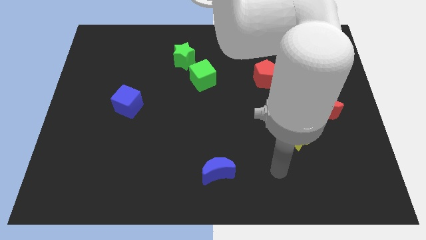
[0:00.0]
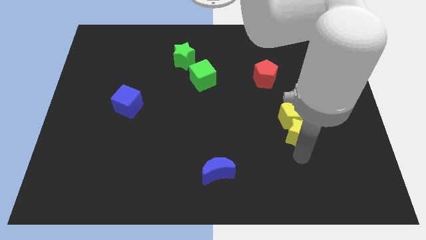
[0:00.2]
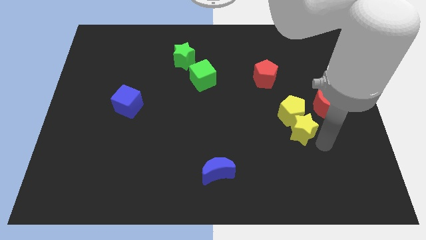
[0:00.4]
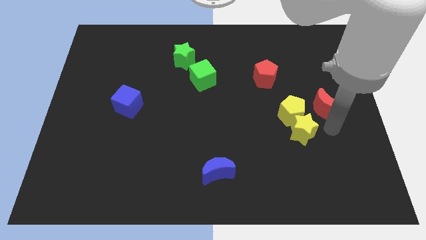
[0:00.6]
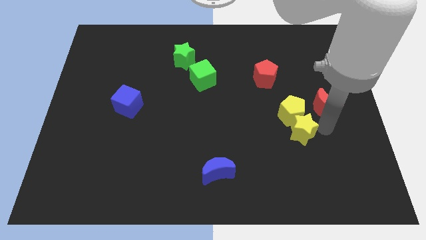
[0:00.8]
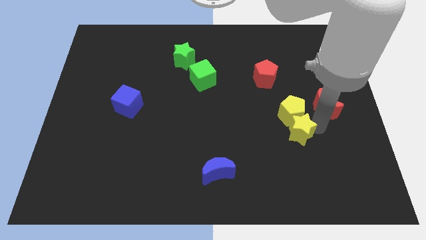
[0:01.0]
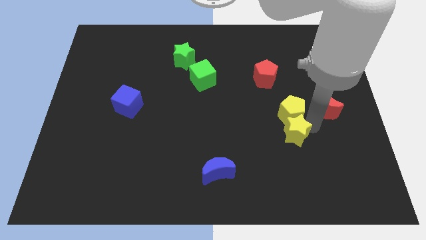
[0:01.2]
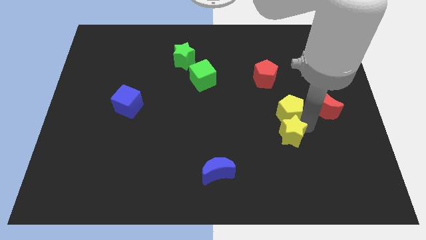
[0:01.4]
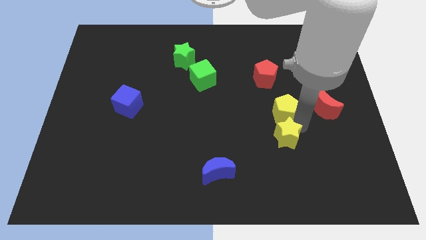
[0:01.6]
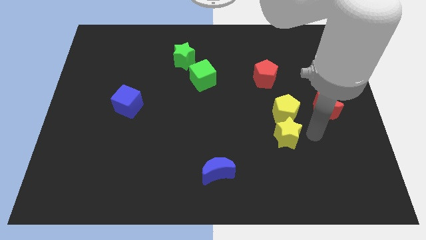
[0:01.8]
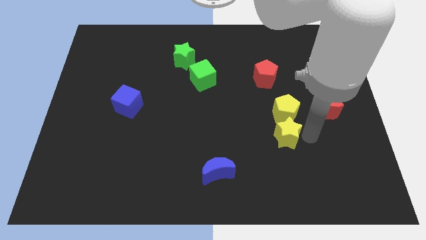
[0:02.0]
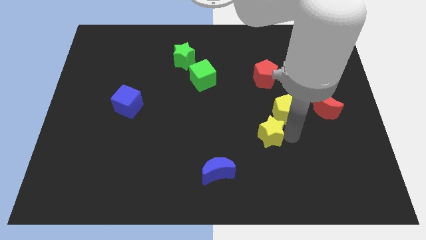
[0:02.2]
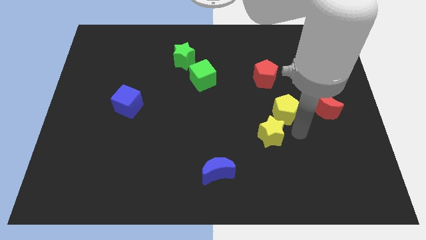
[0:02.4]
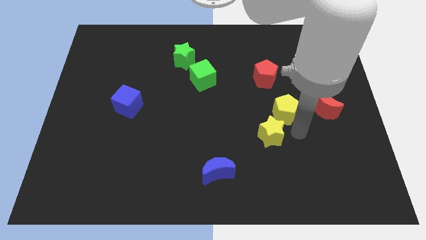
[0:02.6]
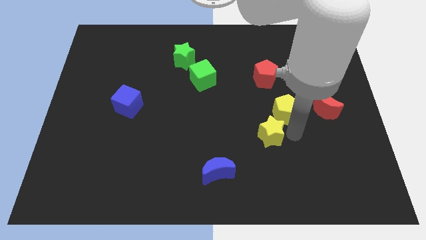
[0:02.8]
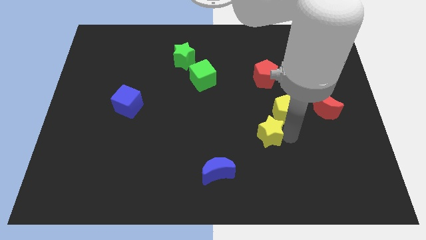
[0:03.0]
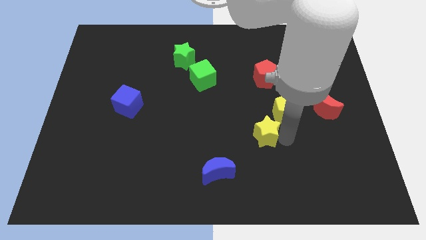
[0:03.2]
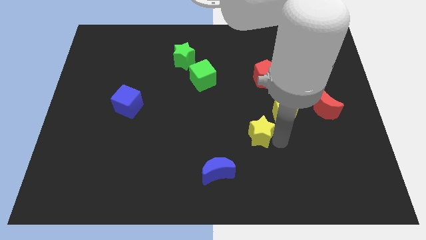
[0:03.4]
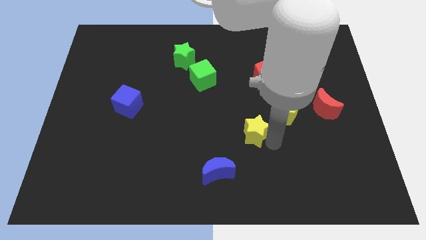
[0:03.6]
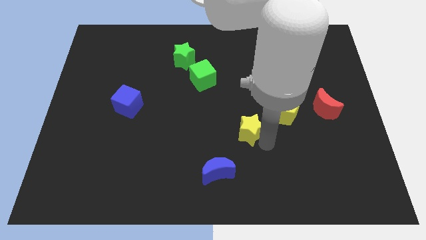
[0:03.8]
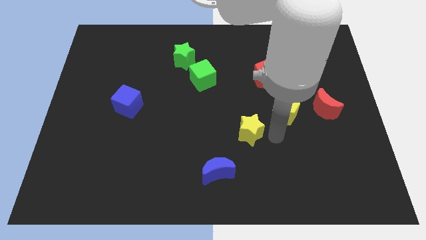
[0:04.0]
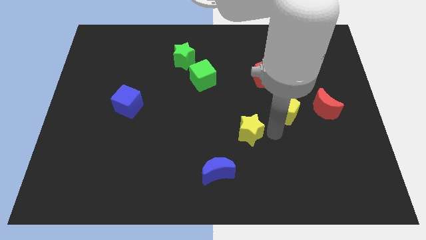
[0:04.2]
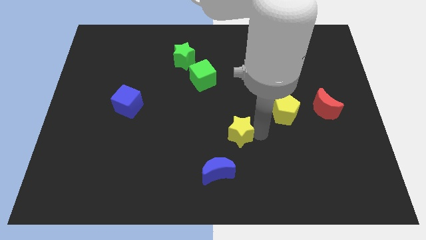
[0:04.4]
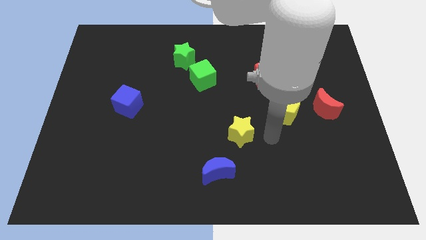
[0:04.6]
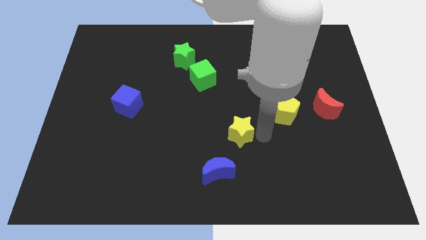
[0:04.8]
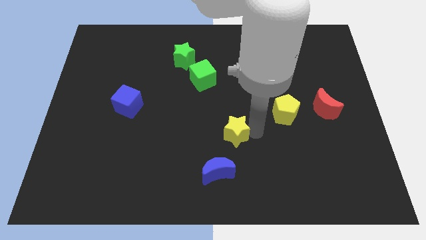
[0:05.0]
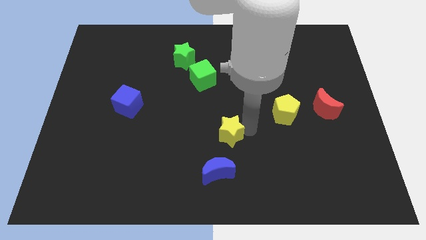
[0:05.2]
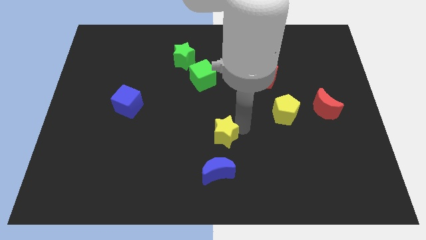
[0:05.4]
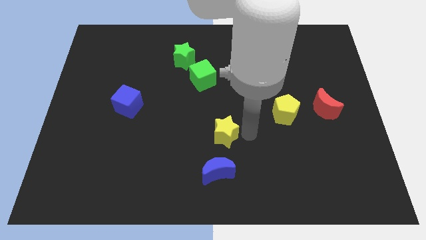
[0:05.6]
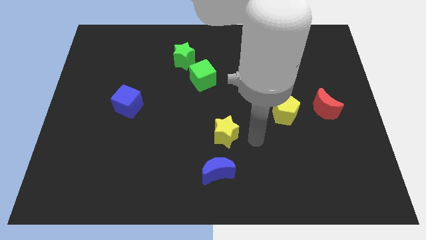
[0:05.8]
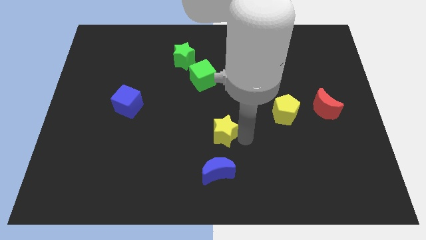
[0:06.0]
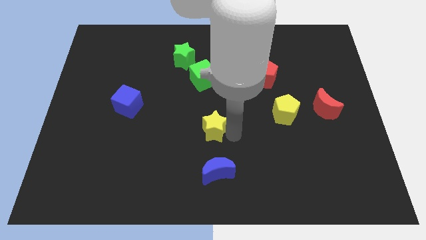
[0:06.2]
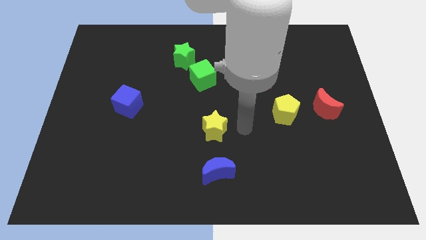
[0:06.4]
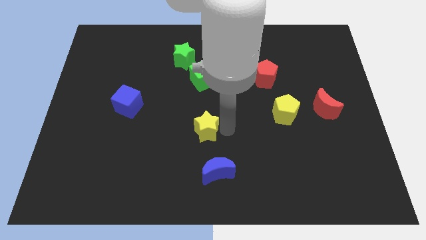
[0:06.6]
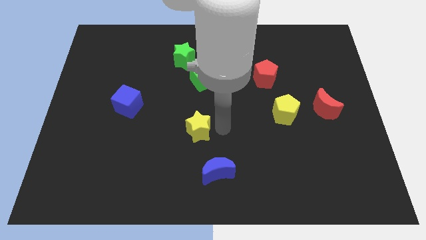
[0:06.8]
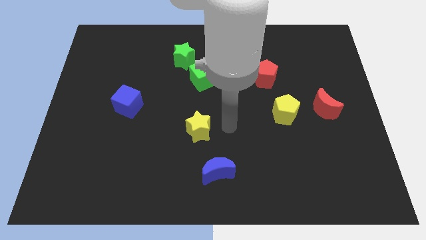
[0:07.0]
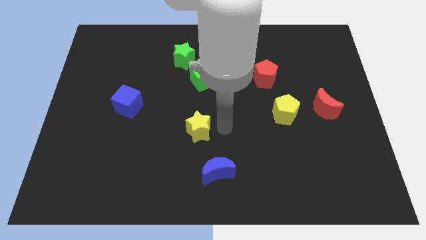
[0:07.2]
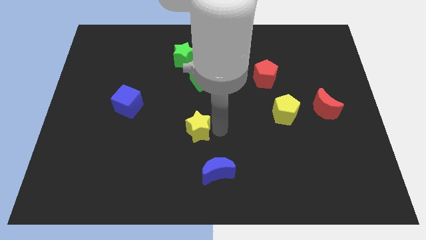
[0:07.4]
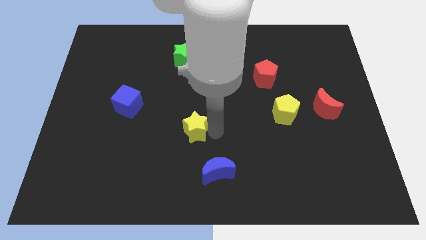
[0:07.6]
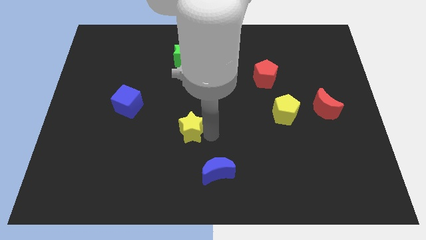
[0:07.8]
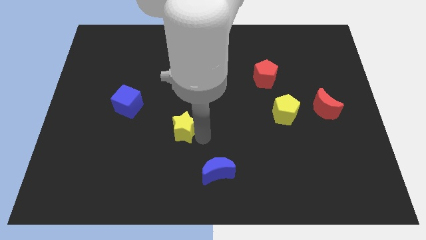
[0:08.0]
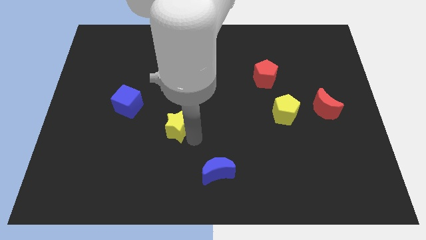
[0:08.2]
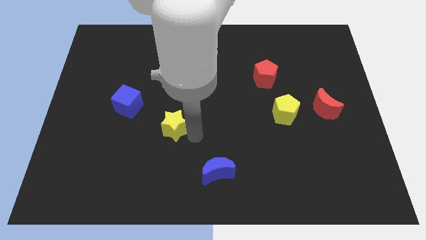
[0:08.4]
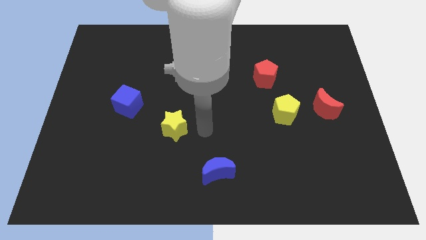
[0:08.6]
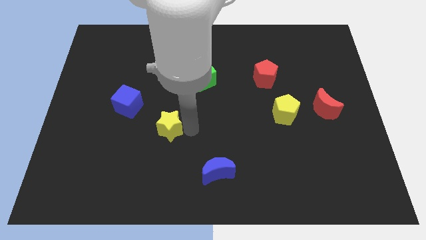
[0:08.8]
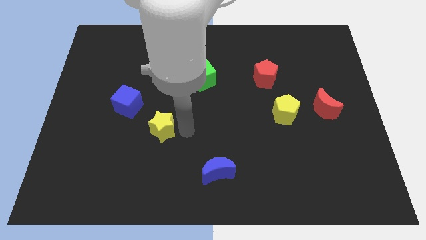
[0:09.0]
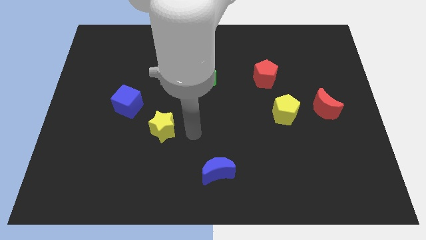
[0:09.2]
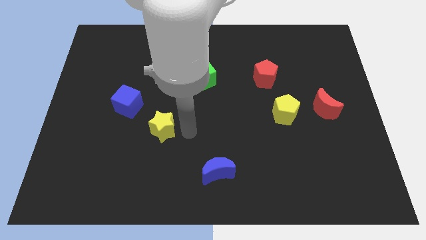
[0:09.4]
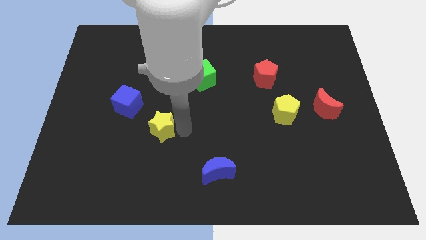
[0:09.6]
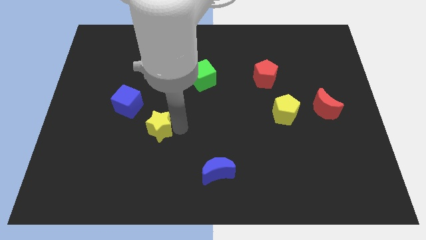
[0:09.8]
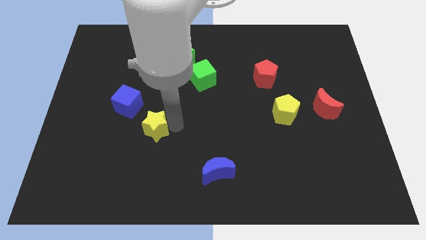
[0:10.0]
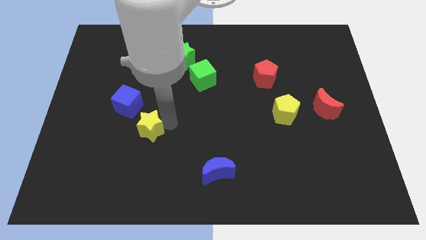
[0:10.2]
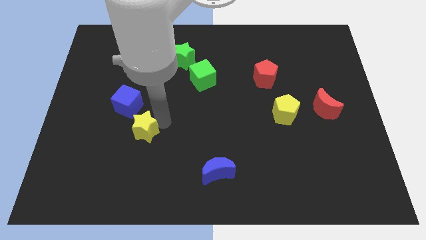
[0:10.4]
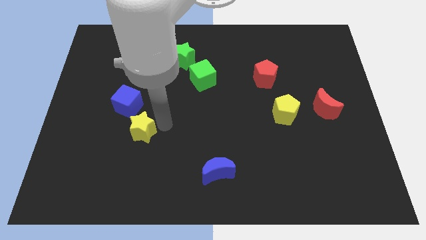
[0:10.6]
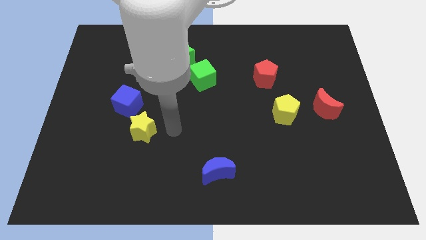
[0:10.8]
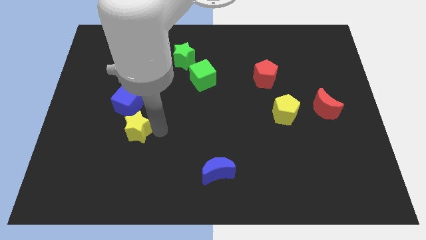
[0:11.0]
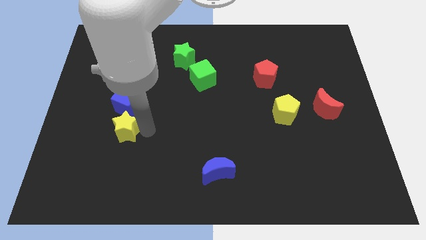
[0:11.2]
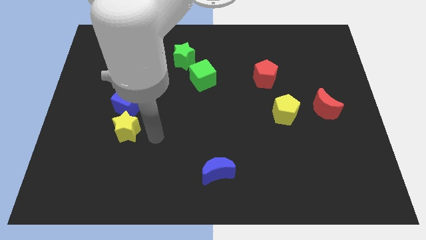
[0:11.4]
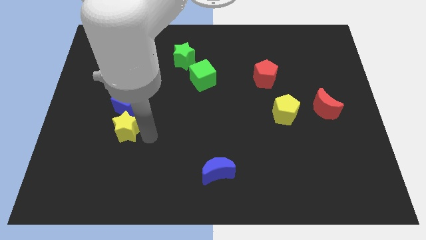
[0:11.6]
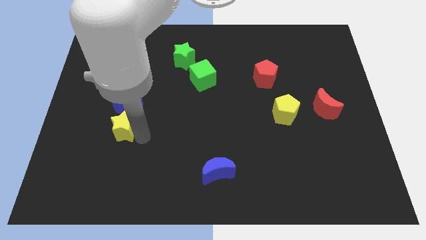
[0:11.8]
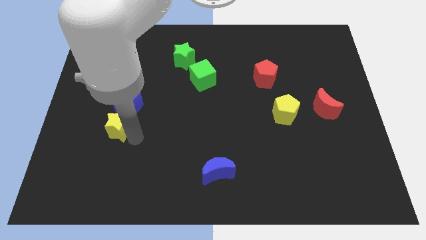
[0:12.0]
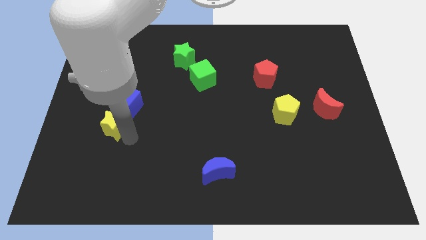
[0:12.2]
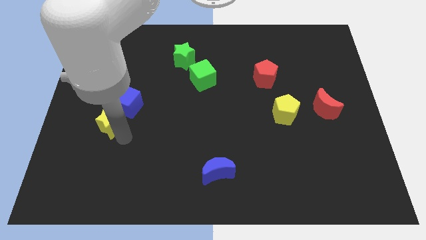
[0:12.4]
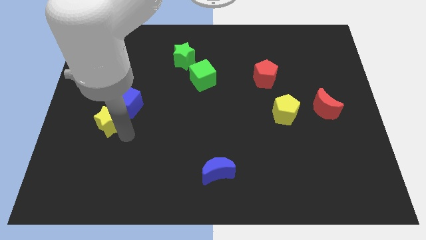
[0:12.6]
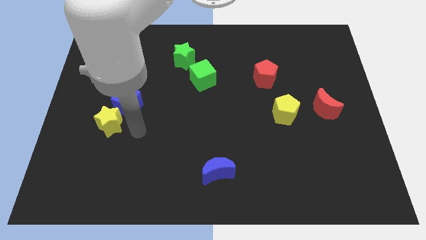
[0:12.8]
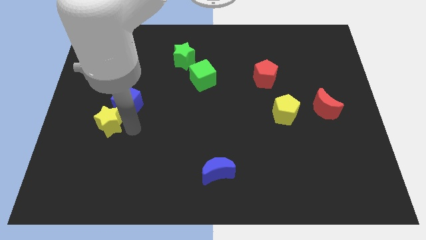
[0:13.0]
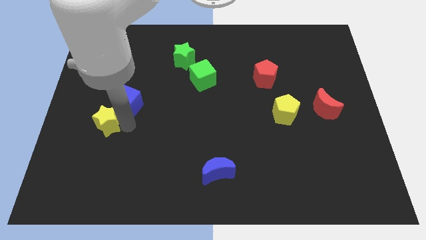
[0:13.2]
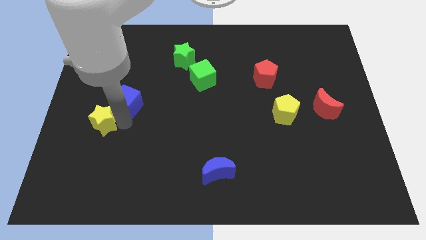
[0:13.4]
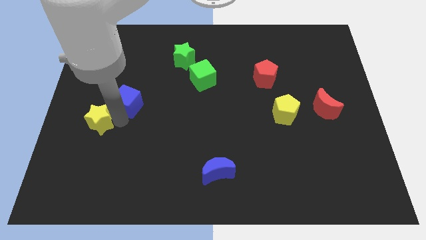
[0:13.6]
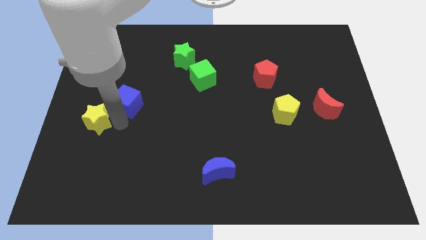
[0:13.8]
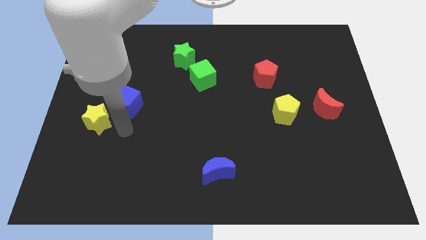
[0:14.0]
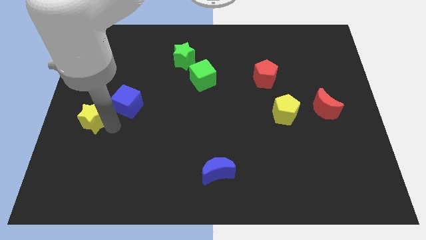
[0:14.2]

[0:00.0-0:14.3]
slide the yellow star to the left side
